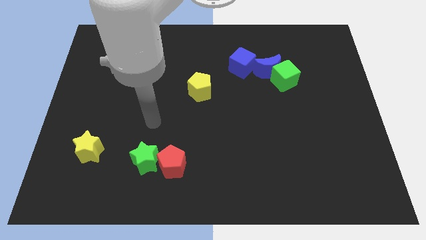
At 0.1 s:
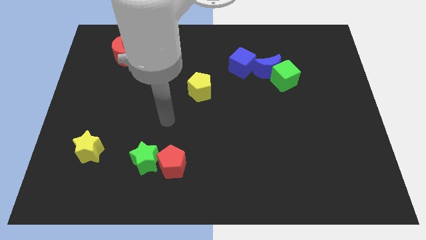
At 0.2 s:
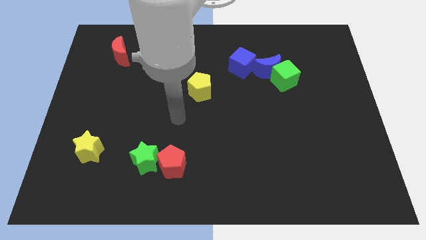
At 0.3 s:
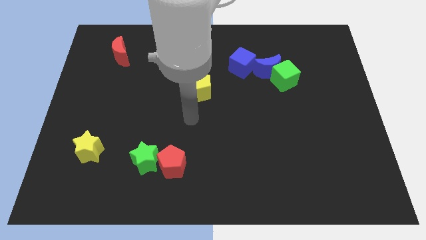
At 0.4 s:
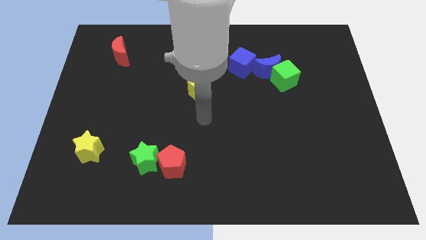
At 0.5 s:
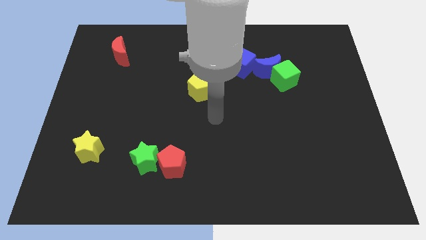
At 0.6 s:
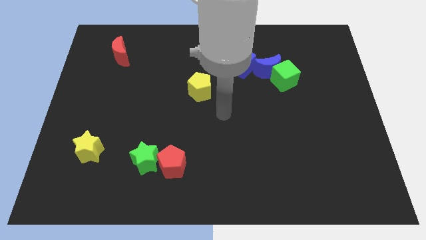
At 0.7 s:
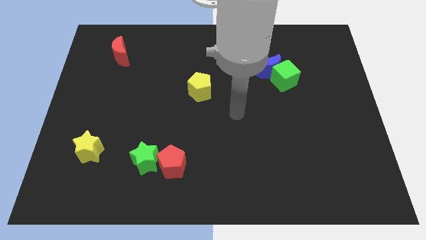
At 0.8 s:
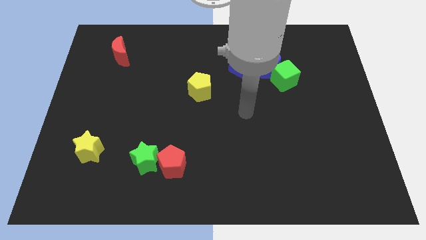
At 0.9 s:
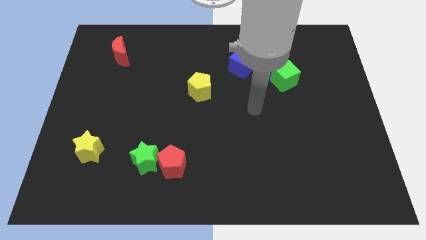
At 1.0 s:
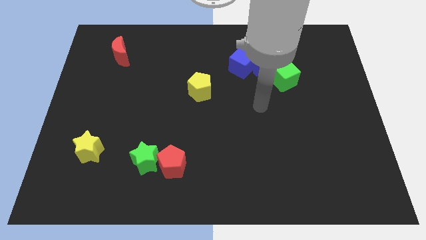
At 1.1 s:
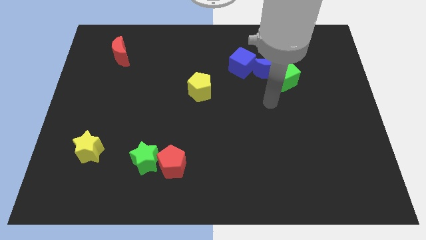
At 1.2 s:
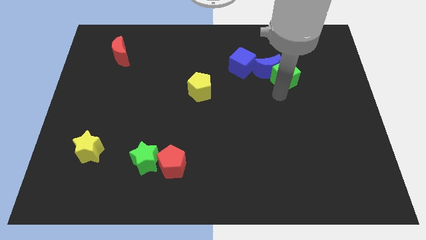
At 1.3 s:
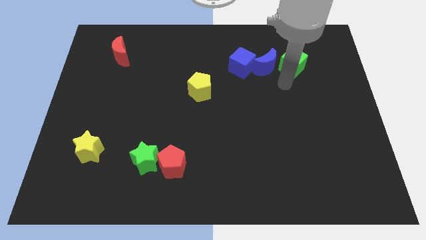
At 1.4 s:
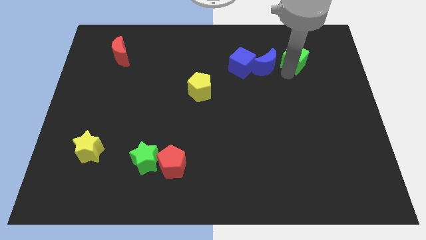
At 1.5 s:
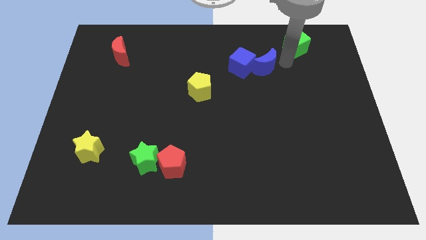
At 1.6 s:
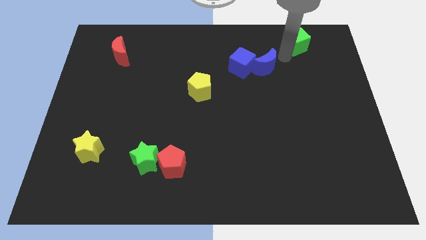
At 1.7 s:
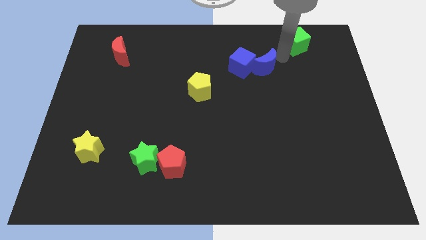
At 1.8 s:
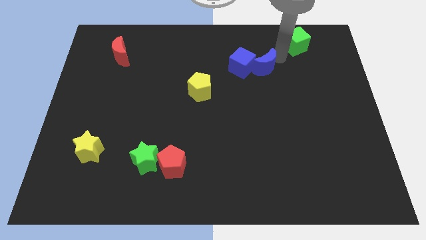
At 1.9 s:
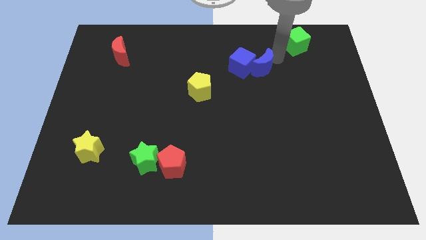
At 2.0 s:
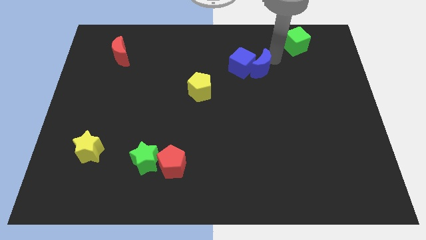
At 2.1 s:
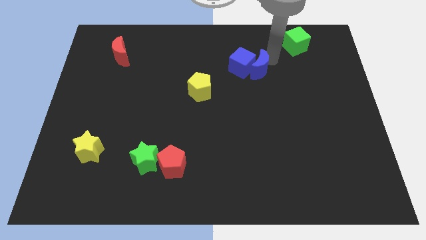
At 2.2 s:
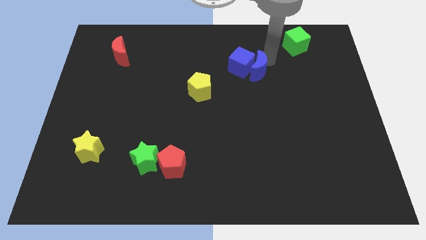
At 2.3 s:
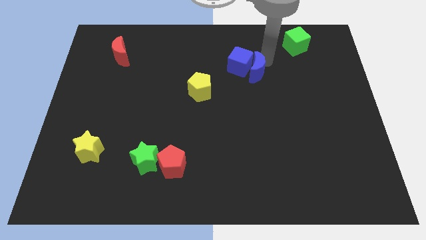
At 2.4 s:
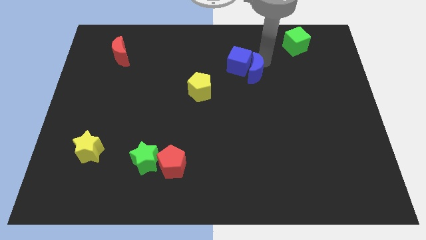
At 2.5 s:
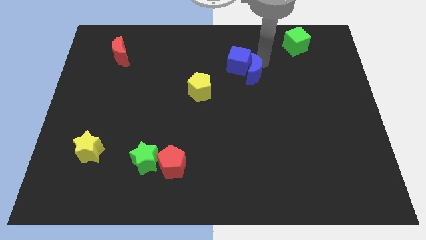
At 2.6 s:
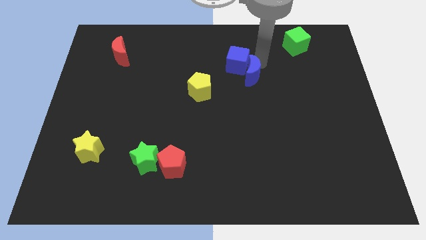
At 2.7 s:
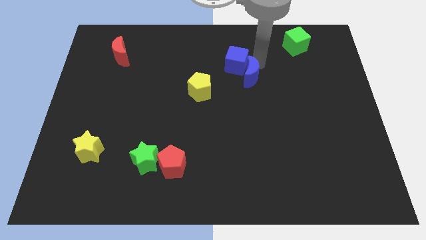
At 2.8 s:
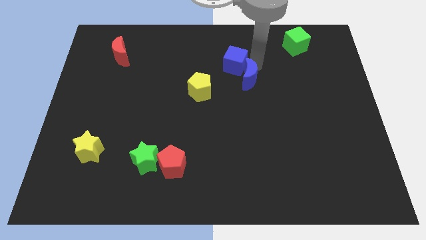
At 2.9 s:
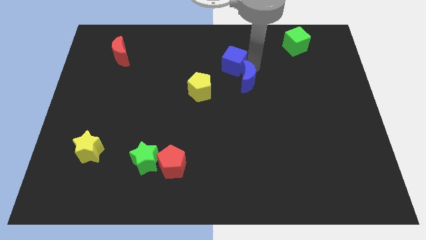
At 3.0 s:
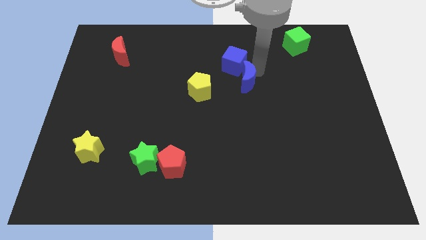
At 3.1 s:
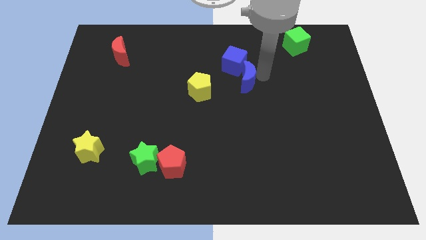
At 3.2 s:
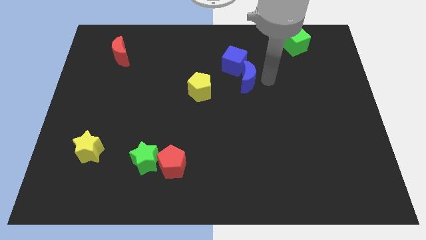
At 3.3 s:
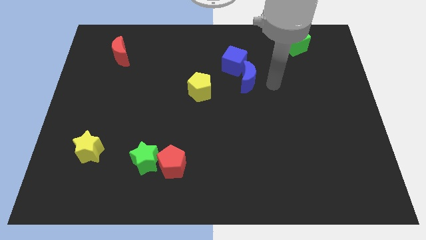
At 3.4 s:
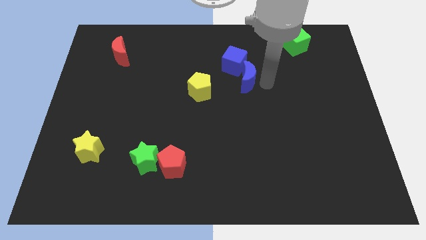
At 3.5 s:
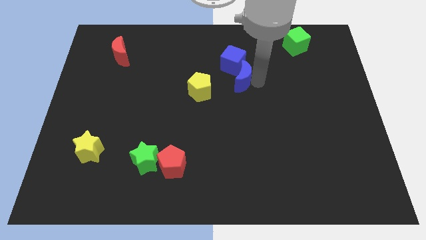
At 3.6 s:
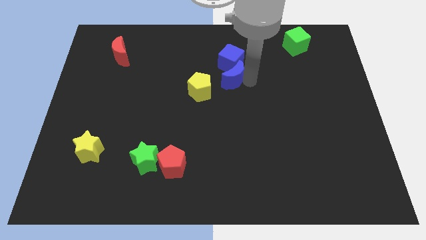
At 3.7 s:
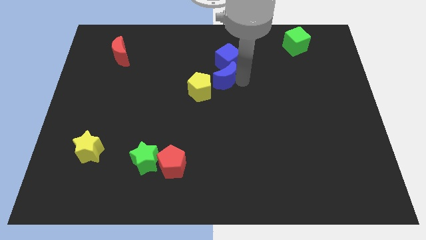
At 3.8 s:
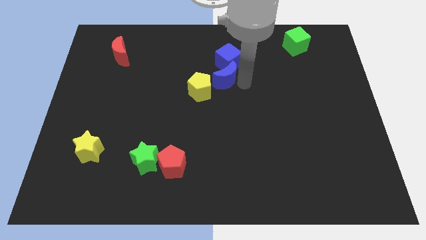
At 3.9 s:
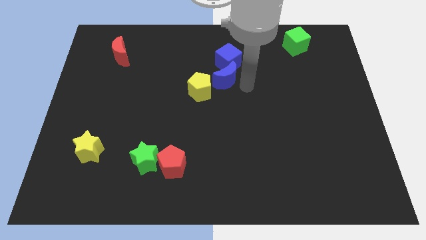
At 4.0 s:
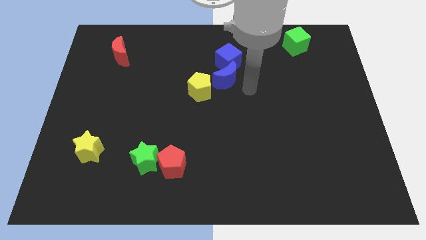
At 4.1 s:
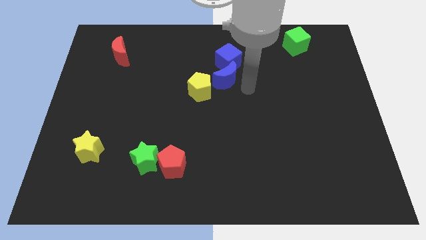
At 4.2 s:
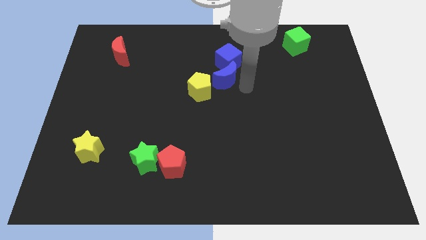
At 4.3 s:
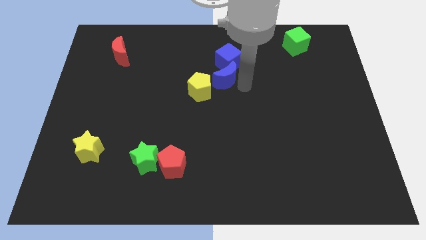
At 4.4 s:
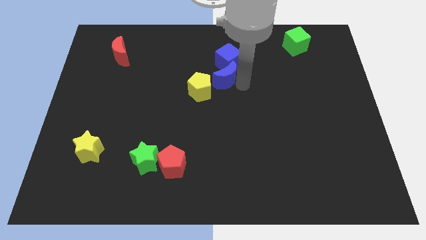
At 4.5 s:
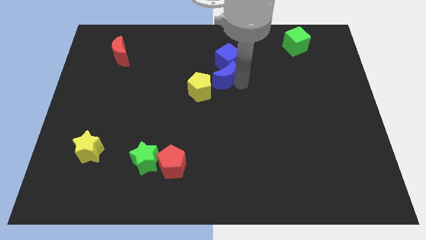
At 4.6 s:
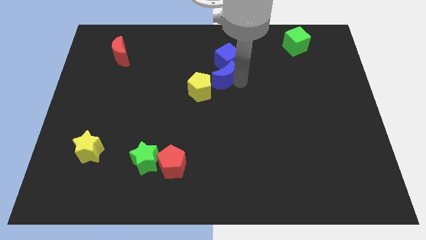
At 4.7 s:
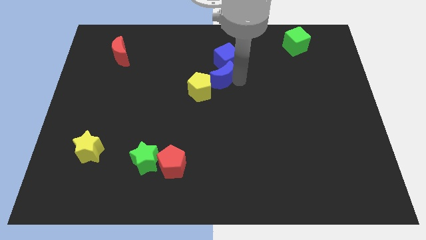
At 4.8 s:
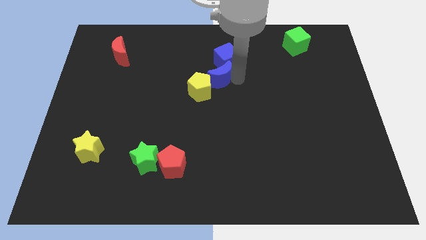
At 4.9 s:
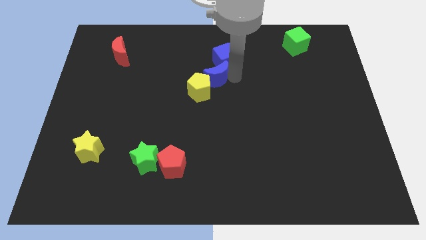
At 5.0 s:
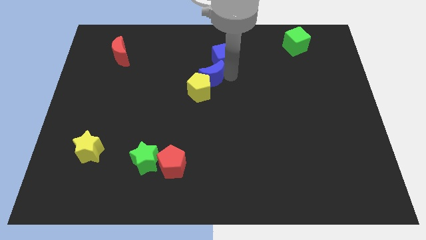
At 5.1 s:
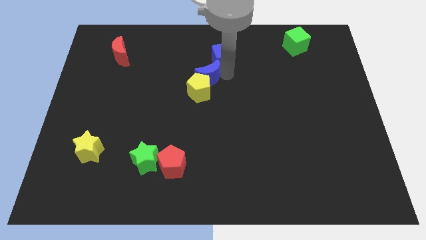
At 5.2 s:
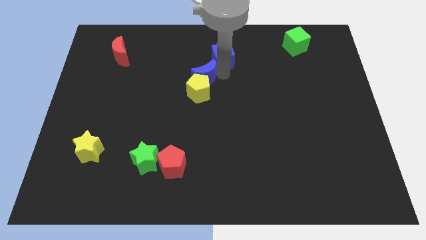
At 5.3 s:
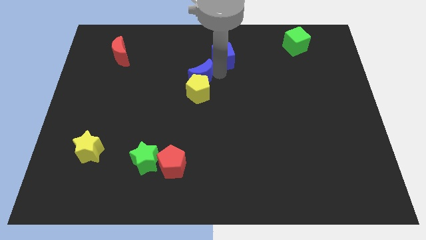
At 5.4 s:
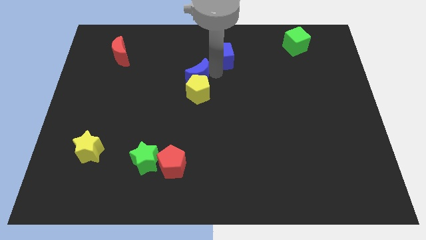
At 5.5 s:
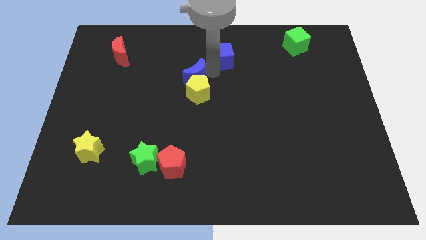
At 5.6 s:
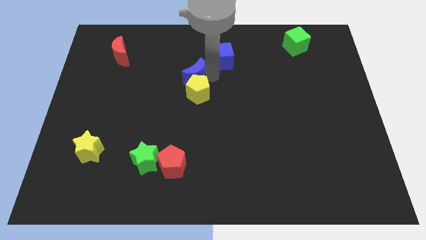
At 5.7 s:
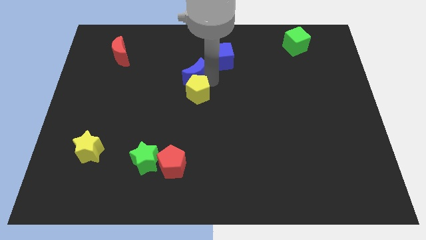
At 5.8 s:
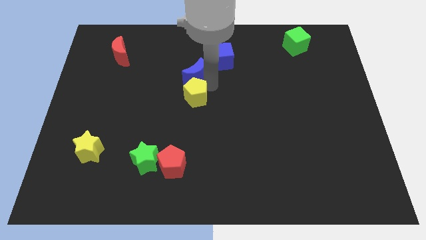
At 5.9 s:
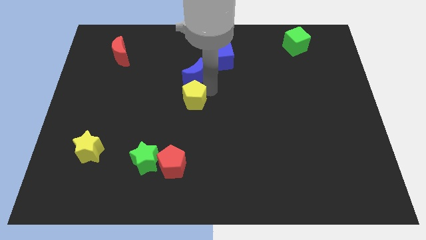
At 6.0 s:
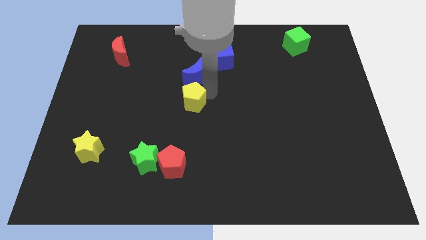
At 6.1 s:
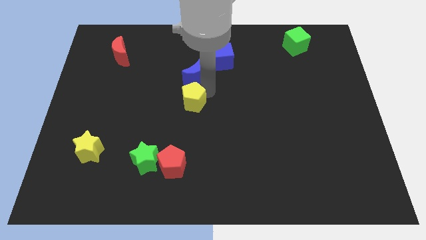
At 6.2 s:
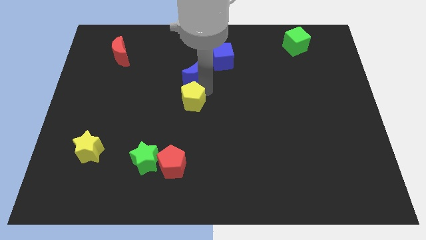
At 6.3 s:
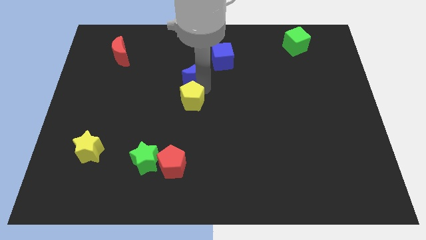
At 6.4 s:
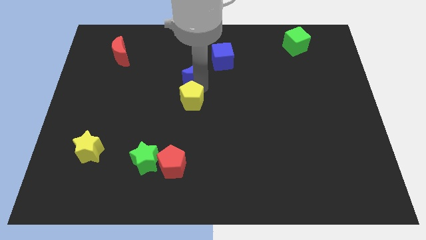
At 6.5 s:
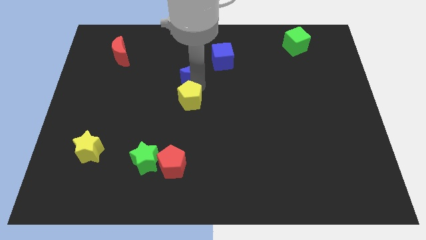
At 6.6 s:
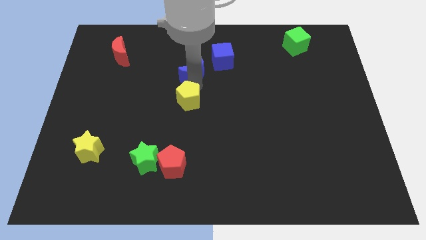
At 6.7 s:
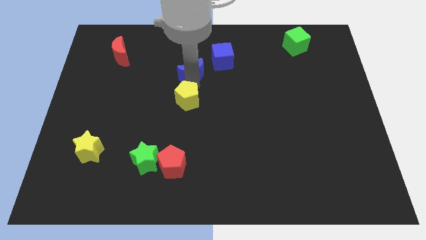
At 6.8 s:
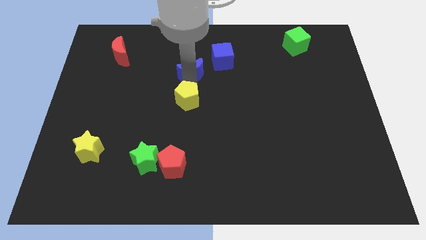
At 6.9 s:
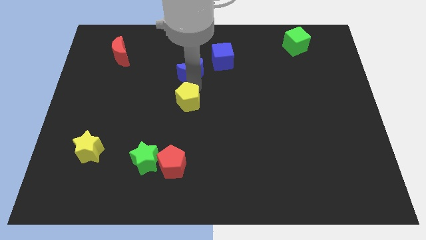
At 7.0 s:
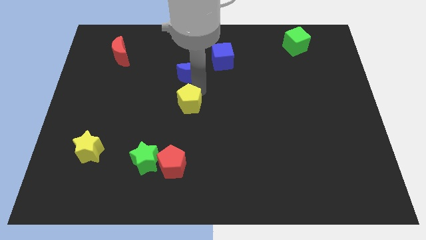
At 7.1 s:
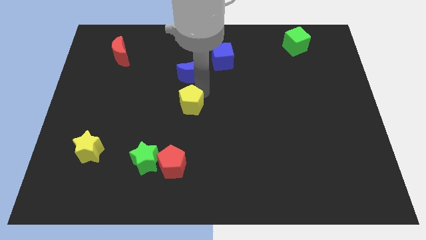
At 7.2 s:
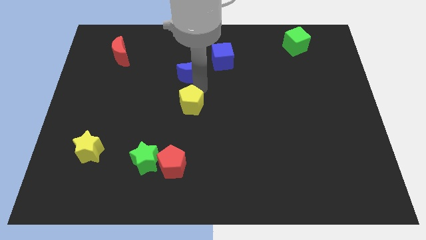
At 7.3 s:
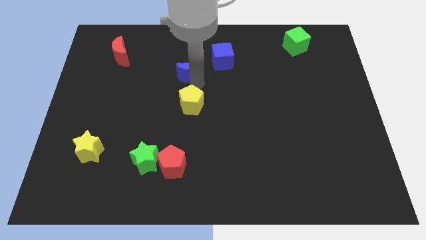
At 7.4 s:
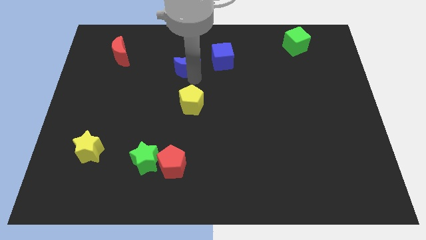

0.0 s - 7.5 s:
push the blue moon just left of the blue cube
